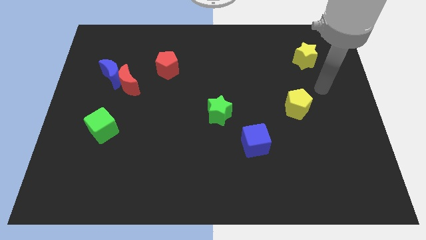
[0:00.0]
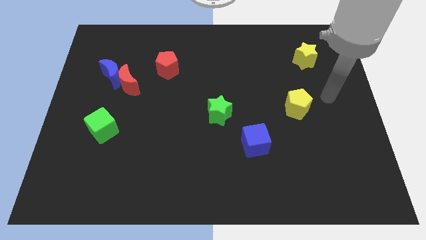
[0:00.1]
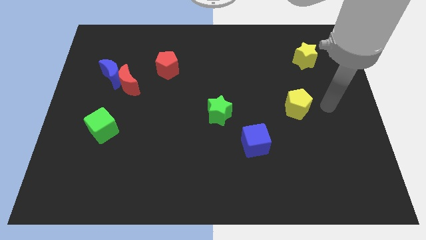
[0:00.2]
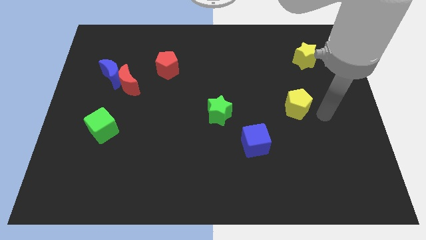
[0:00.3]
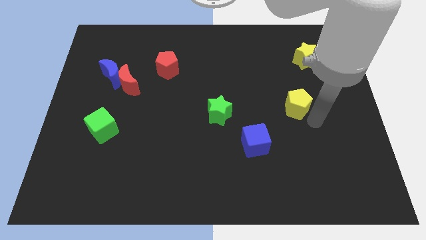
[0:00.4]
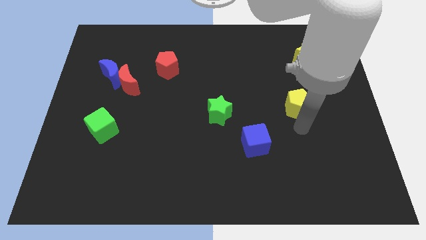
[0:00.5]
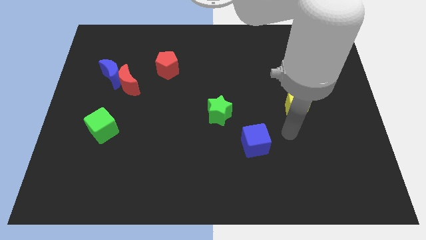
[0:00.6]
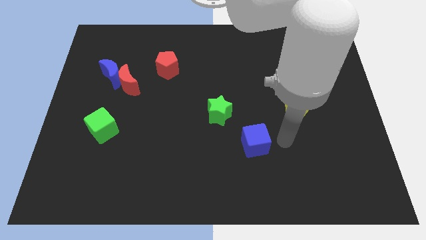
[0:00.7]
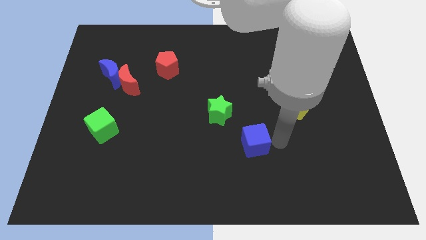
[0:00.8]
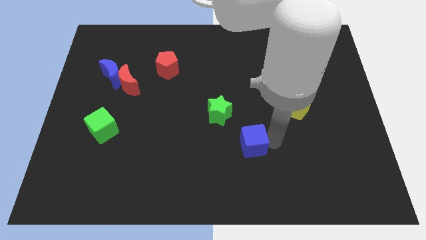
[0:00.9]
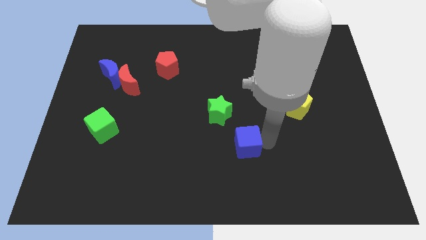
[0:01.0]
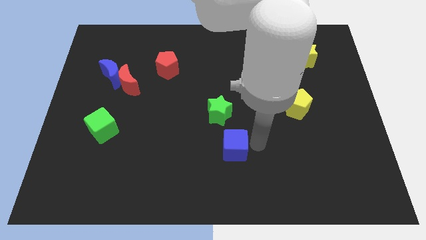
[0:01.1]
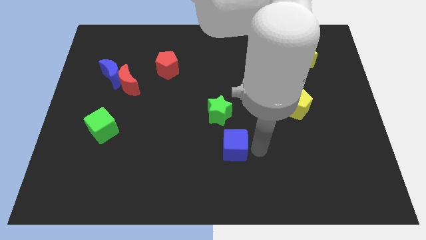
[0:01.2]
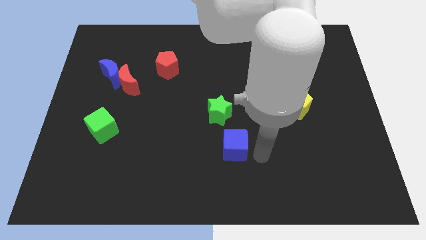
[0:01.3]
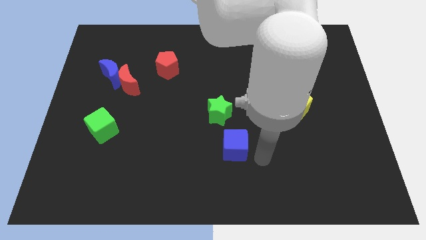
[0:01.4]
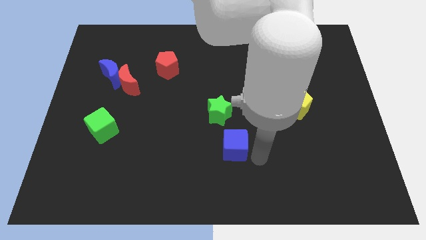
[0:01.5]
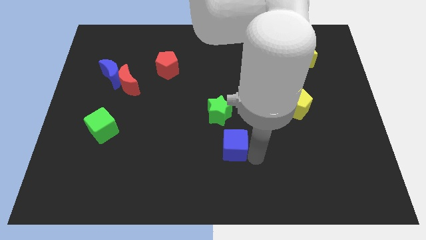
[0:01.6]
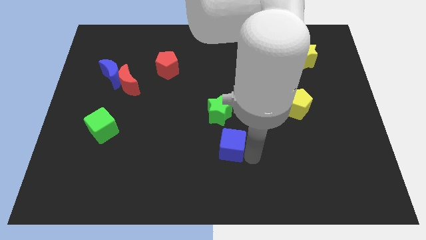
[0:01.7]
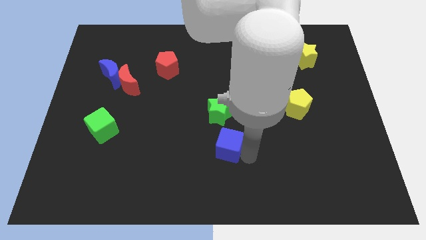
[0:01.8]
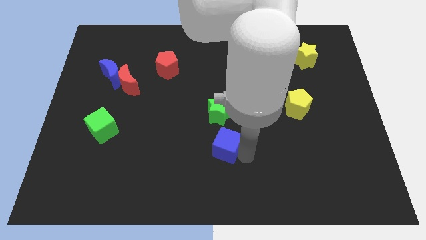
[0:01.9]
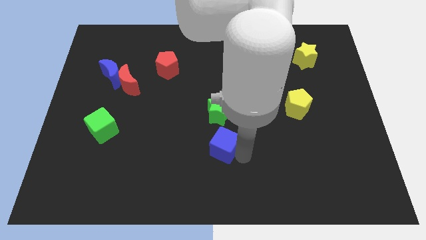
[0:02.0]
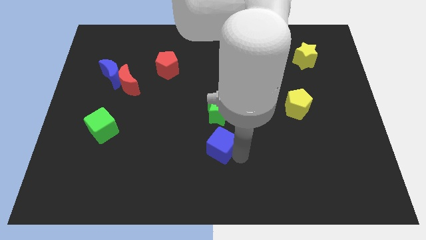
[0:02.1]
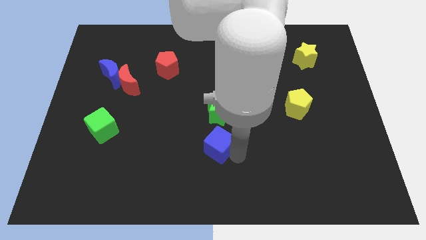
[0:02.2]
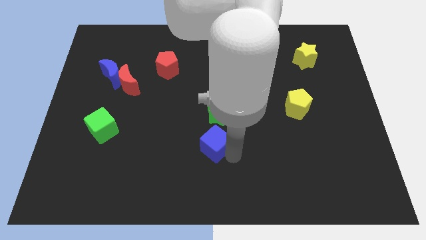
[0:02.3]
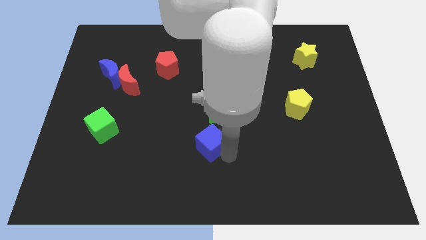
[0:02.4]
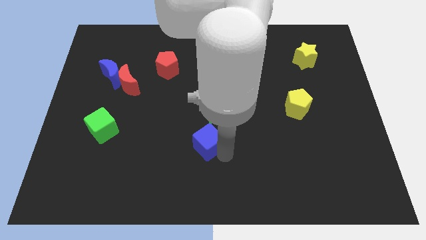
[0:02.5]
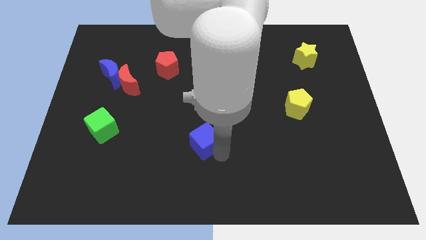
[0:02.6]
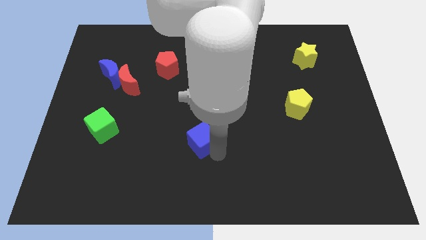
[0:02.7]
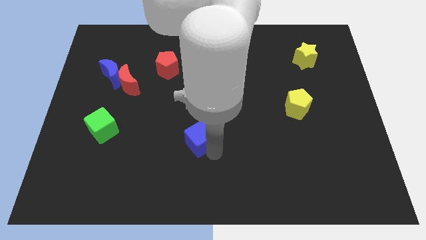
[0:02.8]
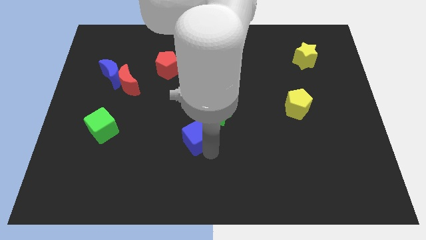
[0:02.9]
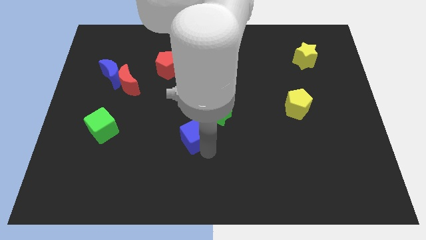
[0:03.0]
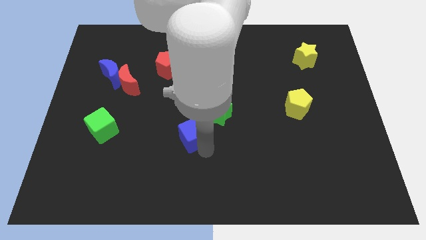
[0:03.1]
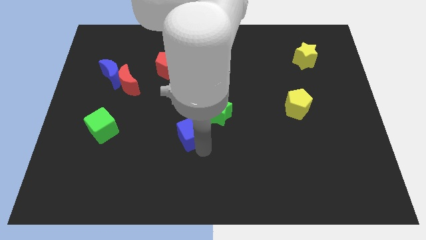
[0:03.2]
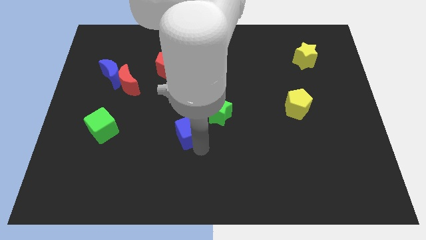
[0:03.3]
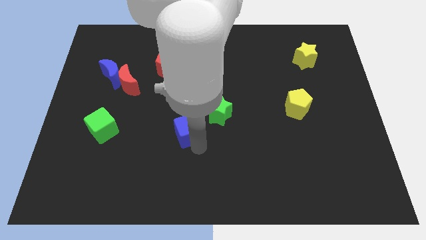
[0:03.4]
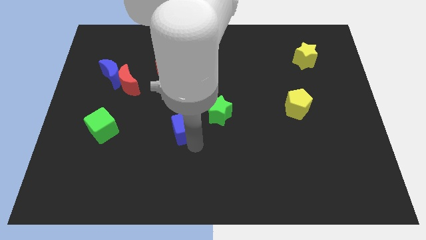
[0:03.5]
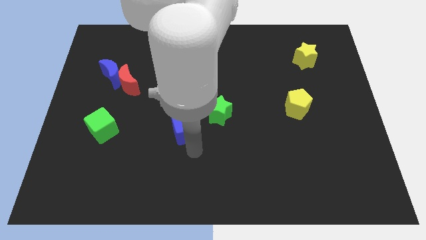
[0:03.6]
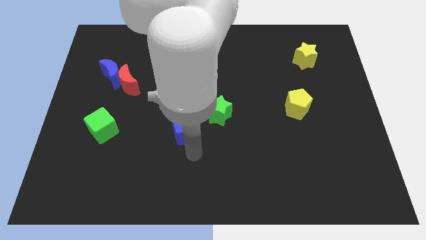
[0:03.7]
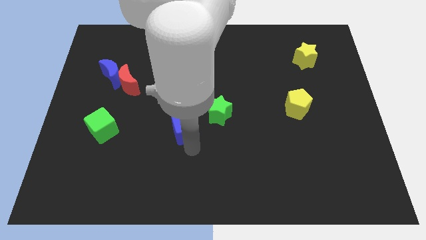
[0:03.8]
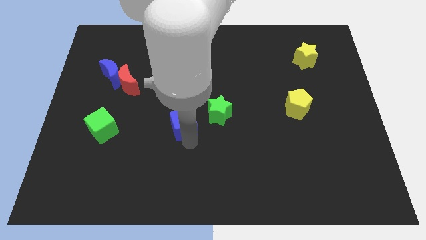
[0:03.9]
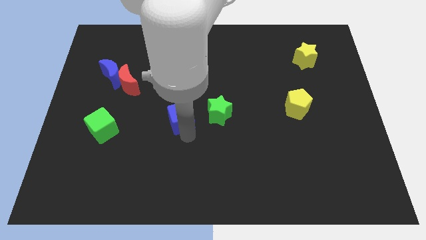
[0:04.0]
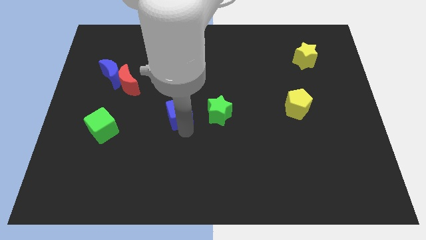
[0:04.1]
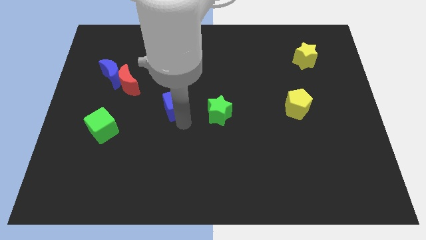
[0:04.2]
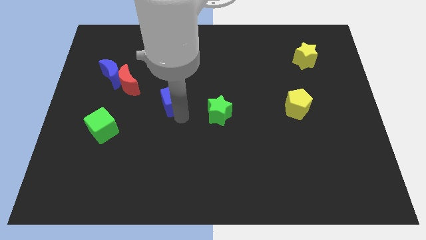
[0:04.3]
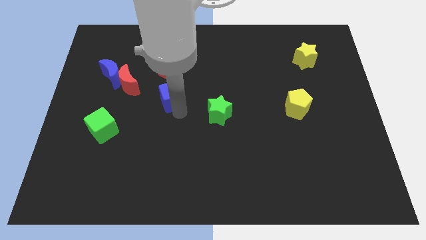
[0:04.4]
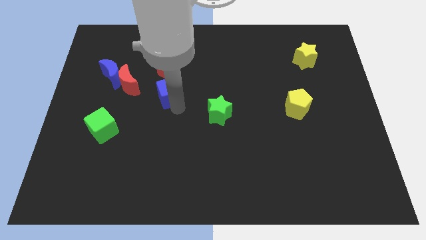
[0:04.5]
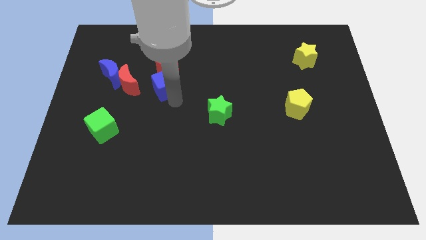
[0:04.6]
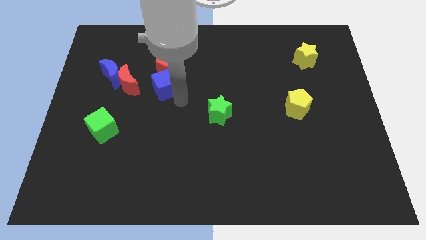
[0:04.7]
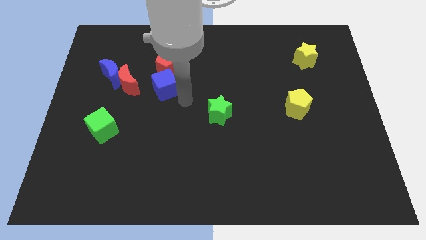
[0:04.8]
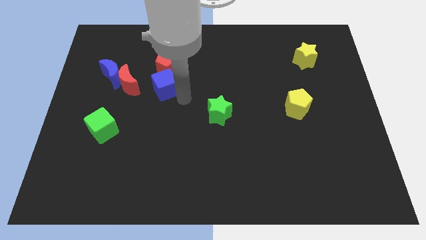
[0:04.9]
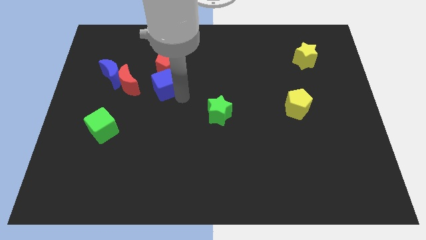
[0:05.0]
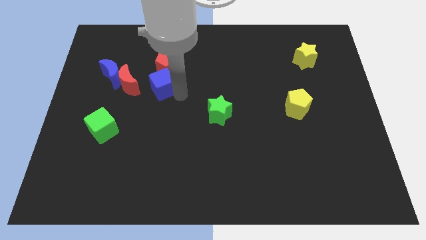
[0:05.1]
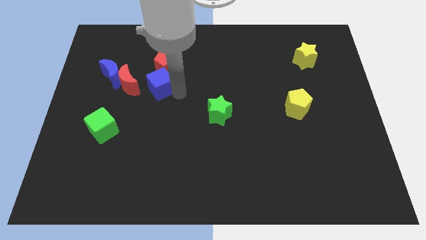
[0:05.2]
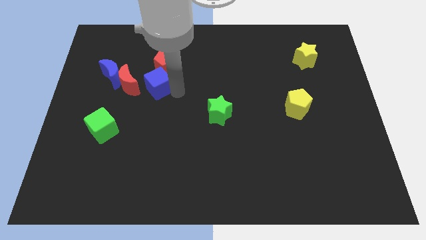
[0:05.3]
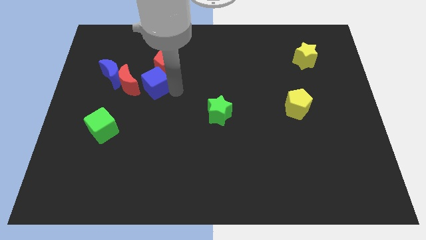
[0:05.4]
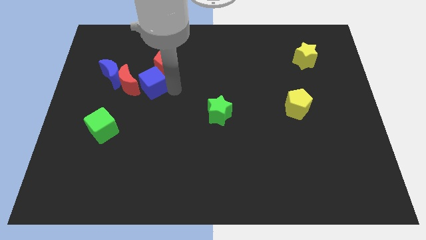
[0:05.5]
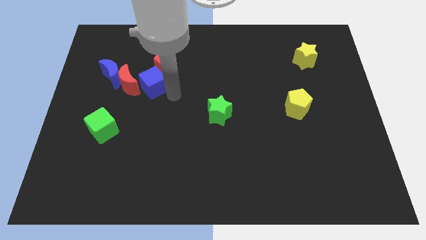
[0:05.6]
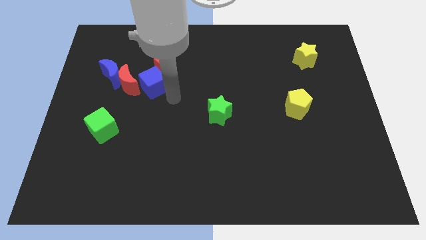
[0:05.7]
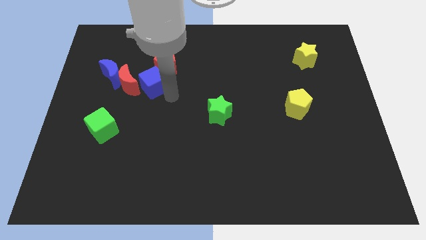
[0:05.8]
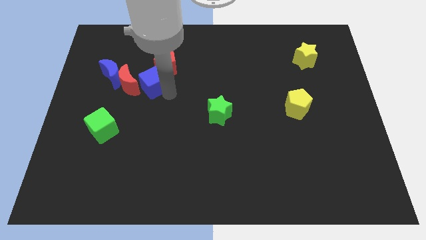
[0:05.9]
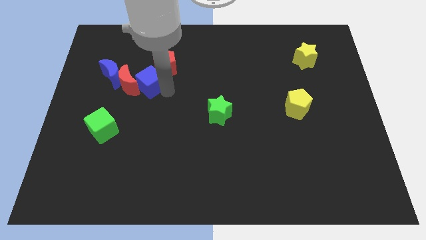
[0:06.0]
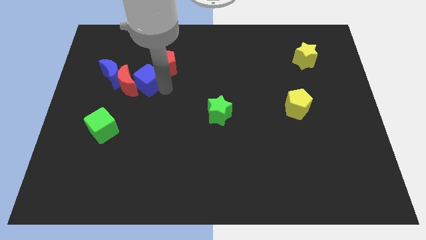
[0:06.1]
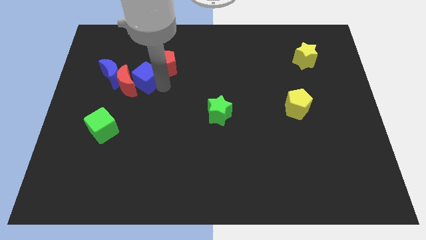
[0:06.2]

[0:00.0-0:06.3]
move the blue cube just left of the red pentagon
